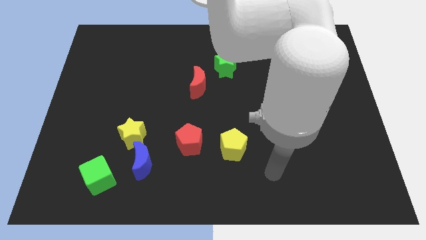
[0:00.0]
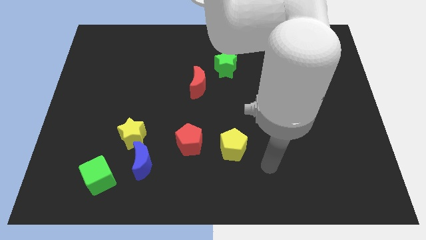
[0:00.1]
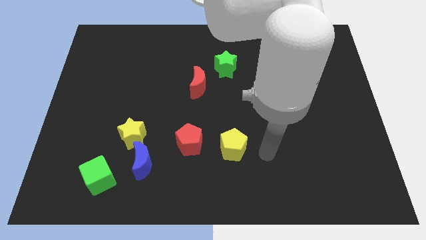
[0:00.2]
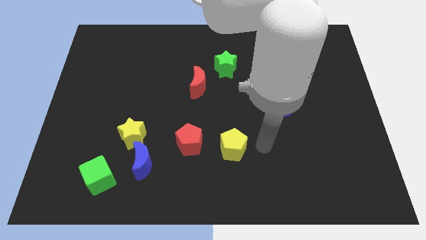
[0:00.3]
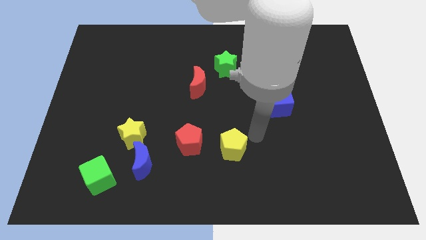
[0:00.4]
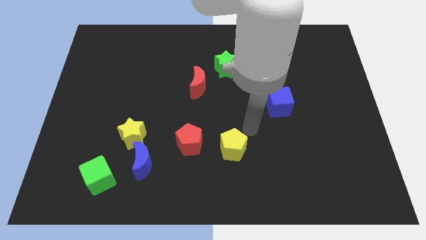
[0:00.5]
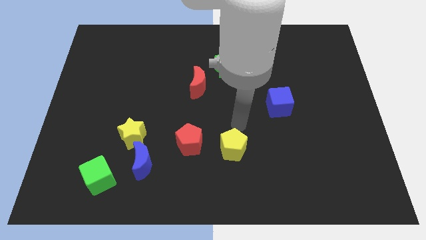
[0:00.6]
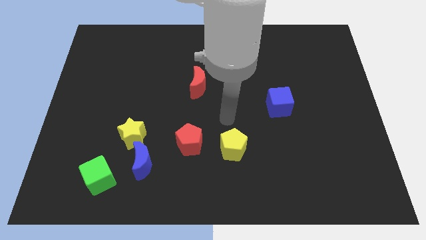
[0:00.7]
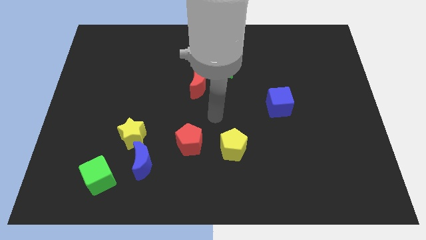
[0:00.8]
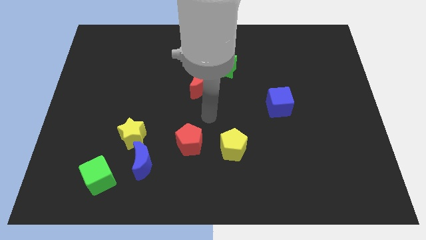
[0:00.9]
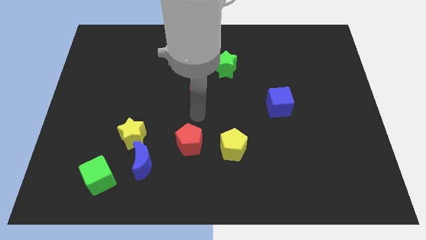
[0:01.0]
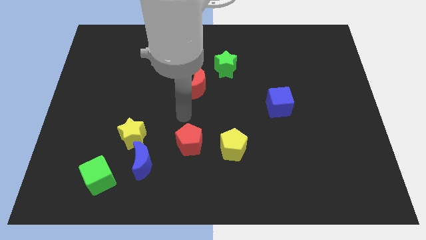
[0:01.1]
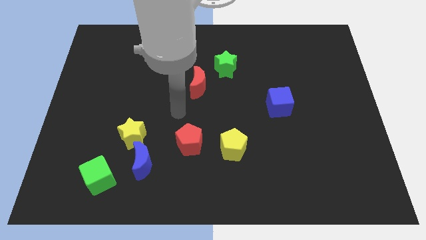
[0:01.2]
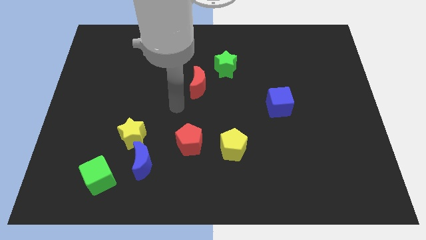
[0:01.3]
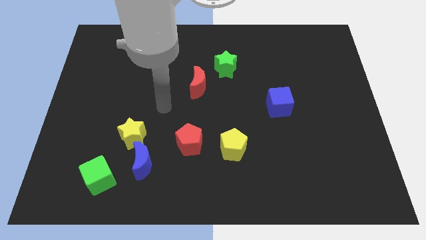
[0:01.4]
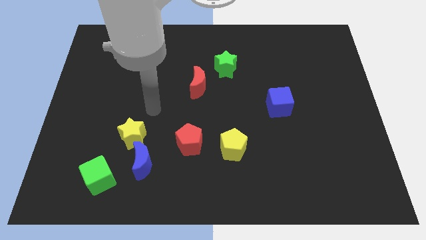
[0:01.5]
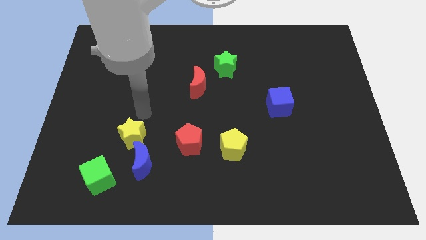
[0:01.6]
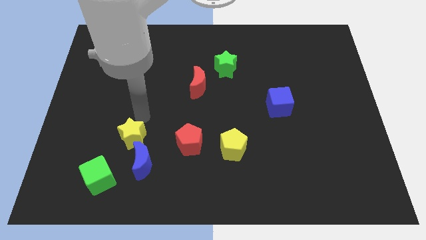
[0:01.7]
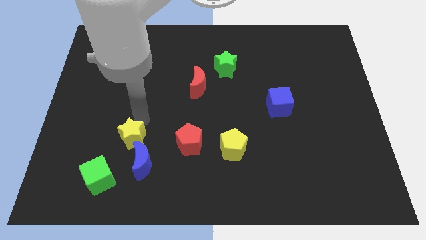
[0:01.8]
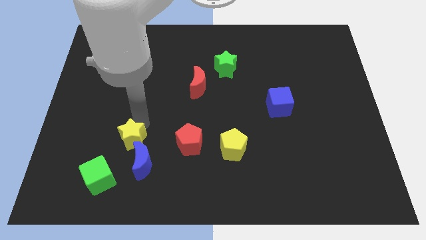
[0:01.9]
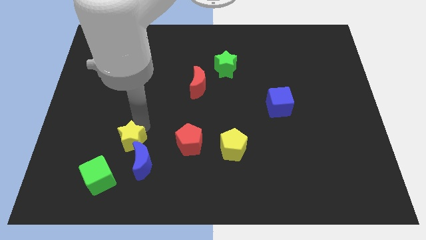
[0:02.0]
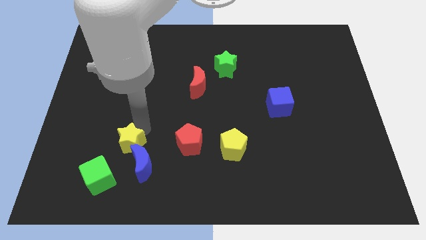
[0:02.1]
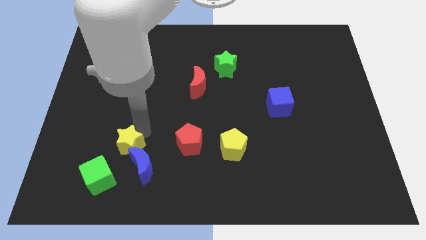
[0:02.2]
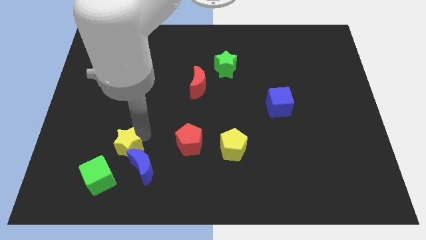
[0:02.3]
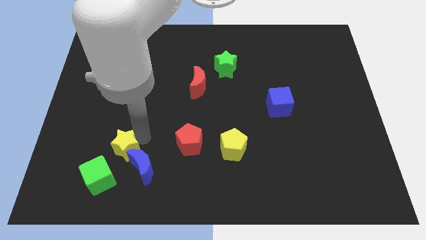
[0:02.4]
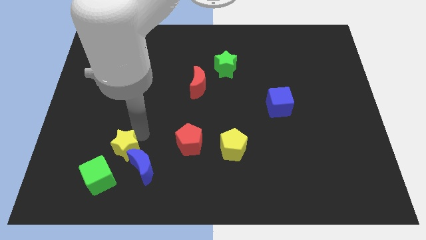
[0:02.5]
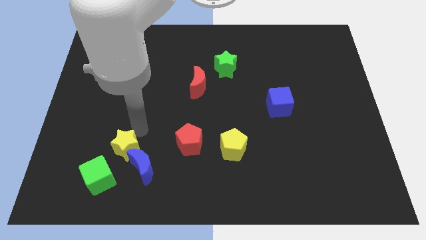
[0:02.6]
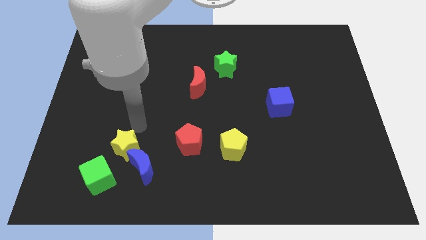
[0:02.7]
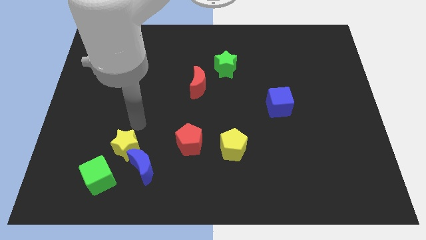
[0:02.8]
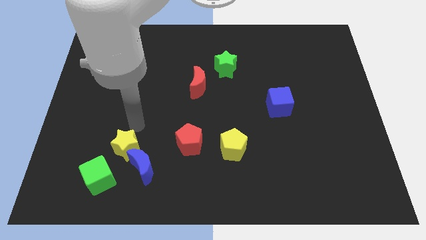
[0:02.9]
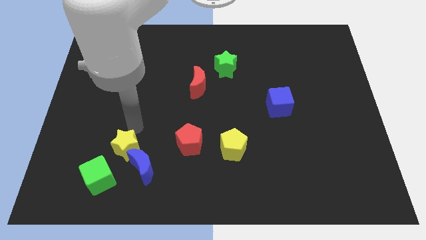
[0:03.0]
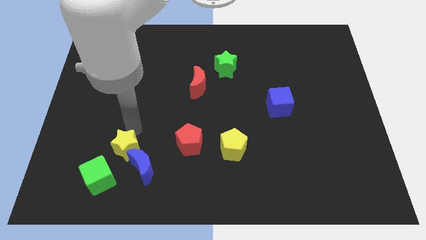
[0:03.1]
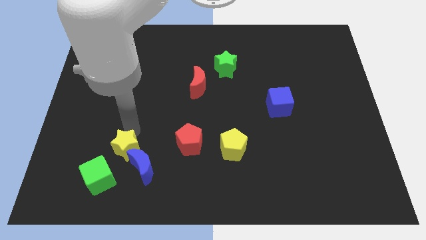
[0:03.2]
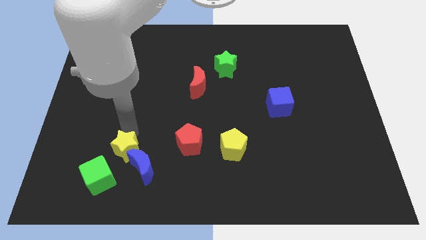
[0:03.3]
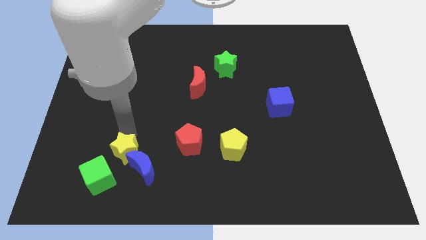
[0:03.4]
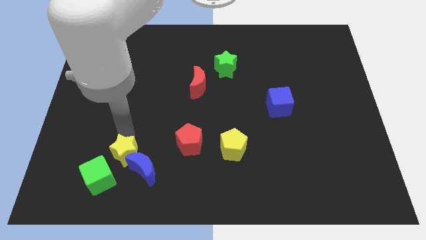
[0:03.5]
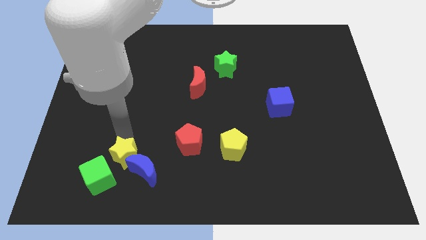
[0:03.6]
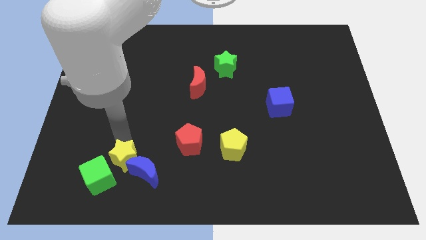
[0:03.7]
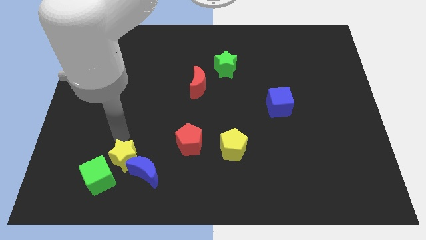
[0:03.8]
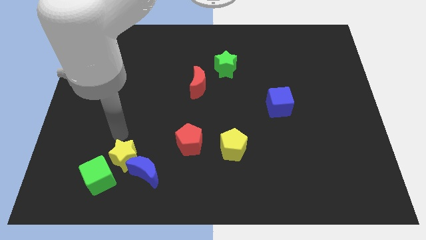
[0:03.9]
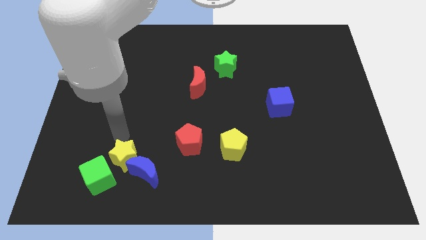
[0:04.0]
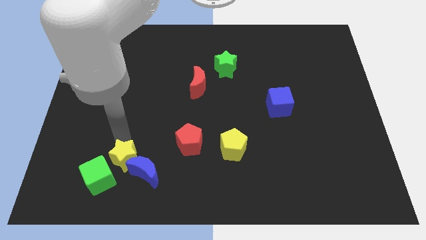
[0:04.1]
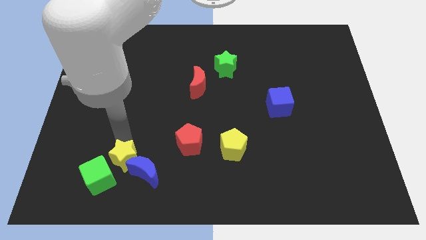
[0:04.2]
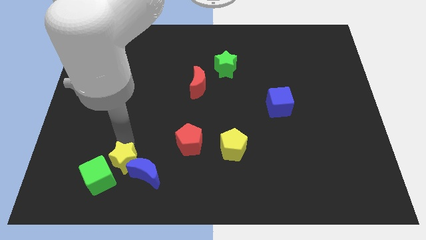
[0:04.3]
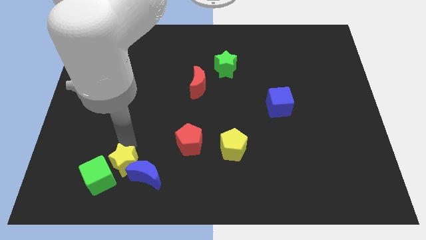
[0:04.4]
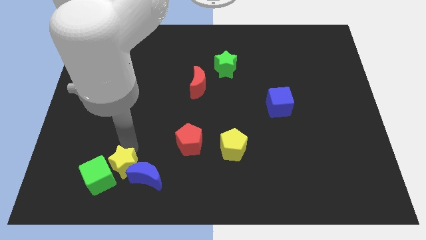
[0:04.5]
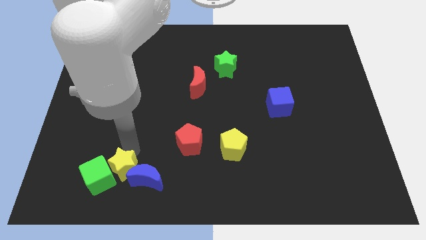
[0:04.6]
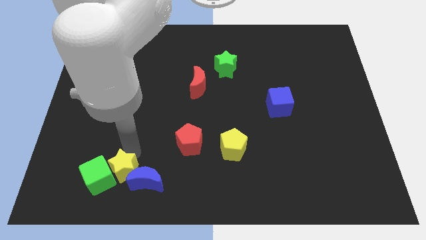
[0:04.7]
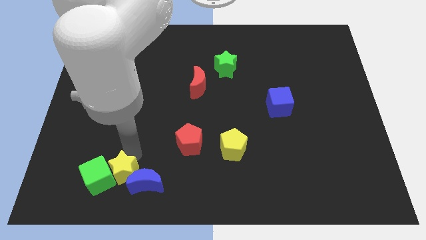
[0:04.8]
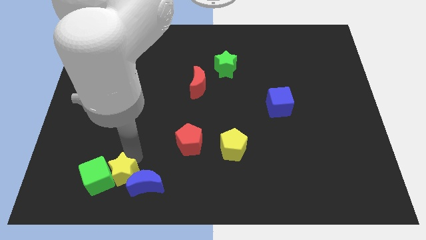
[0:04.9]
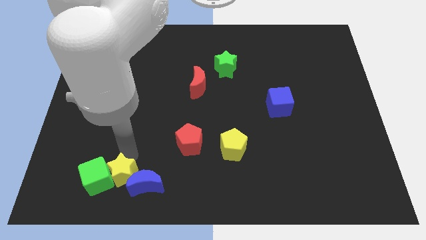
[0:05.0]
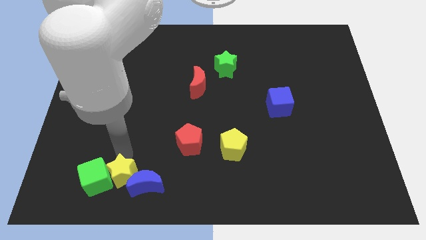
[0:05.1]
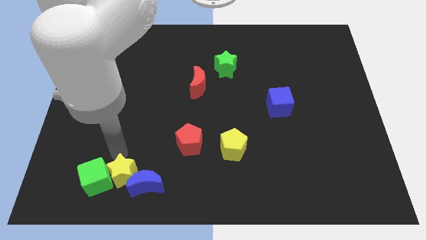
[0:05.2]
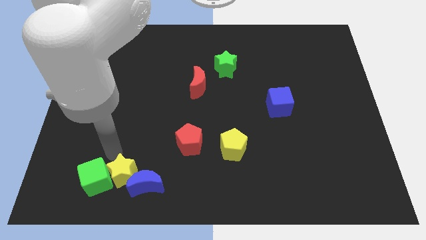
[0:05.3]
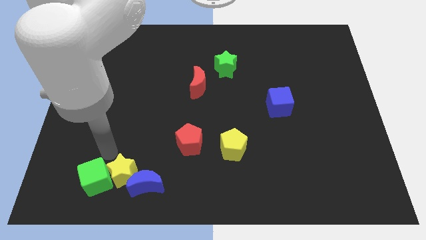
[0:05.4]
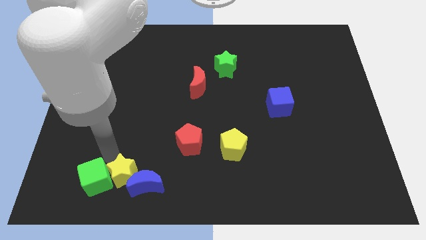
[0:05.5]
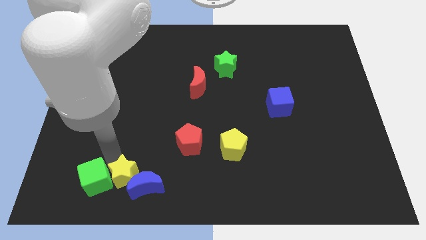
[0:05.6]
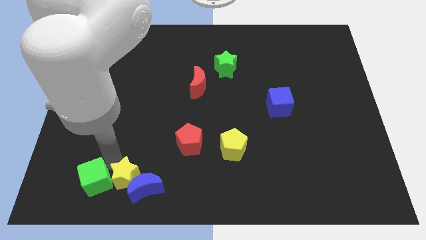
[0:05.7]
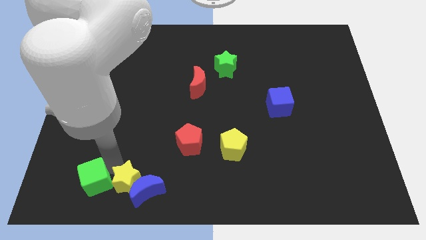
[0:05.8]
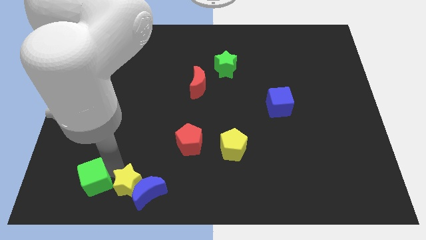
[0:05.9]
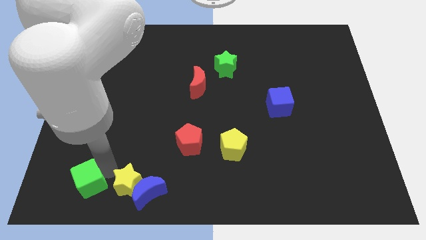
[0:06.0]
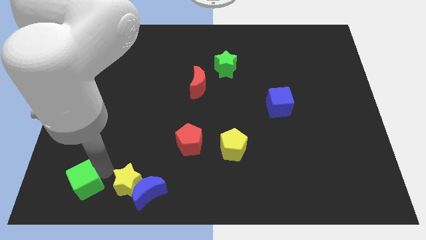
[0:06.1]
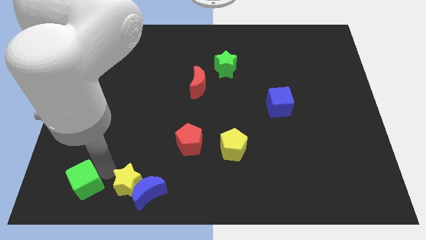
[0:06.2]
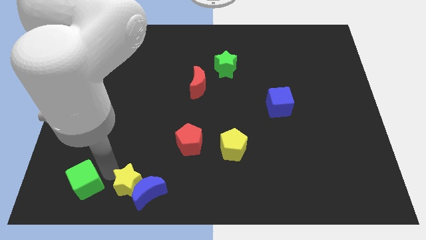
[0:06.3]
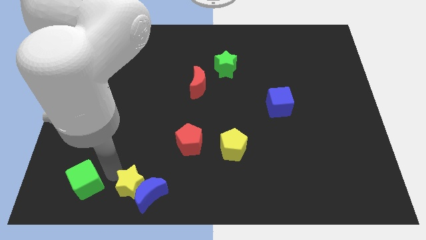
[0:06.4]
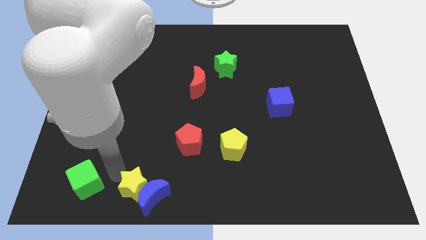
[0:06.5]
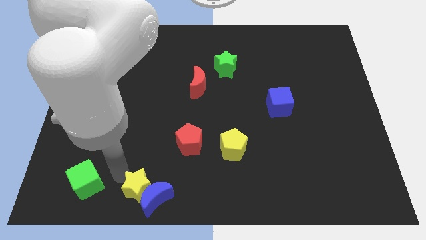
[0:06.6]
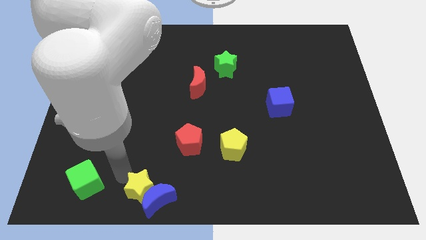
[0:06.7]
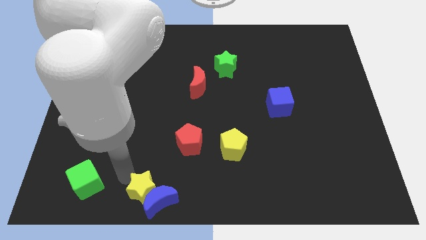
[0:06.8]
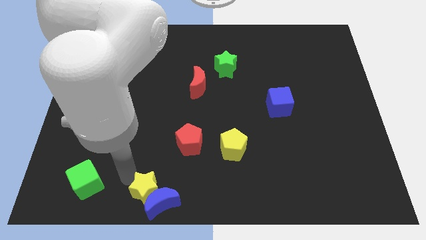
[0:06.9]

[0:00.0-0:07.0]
move the yellow star to the bottom
